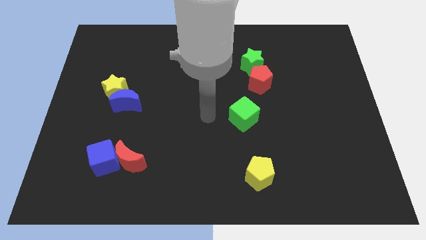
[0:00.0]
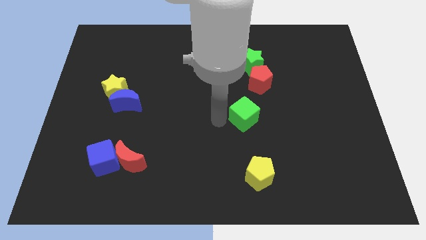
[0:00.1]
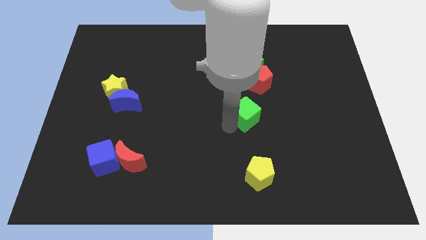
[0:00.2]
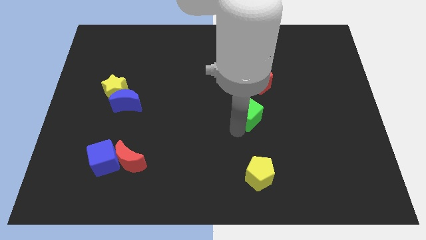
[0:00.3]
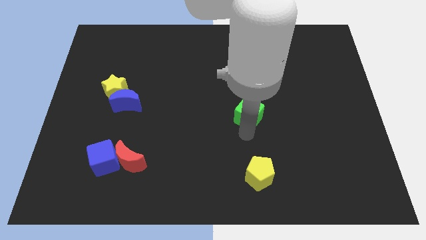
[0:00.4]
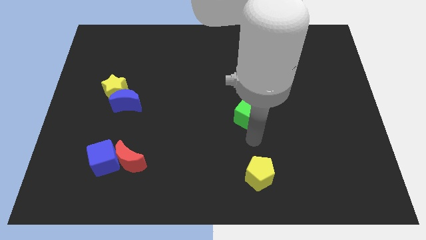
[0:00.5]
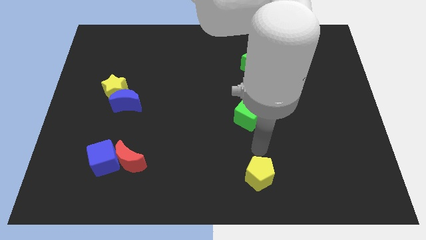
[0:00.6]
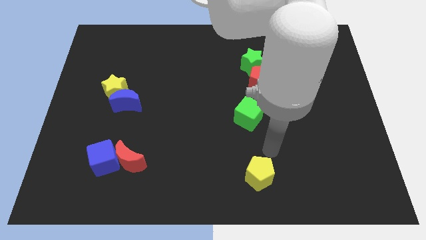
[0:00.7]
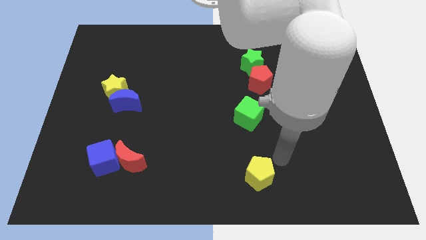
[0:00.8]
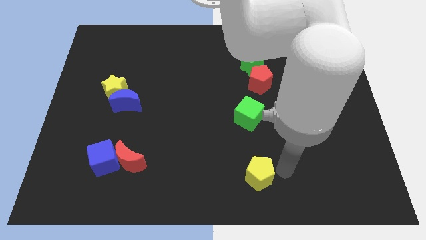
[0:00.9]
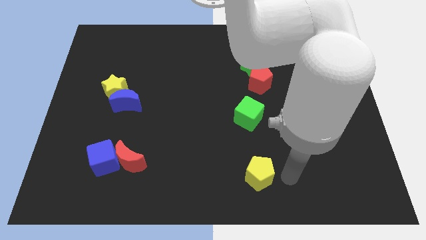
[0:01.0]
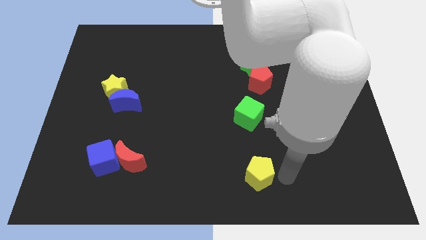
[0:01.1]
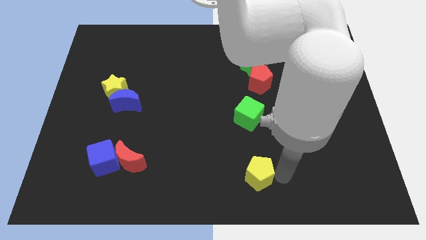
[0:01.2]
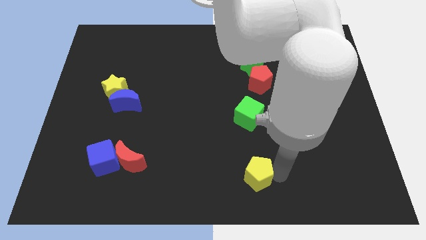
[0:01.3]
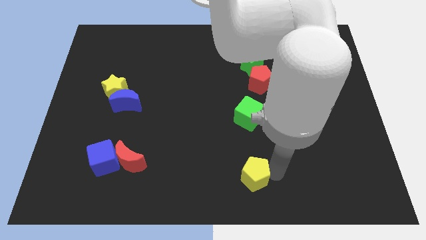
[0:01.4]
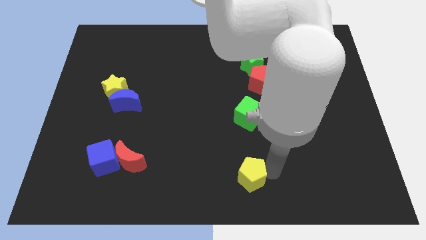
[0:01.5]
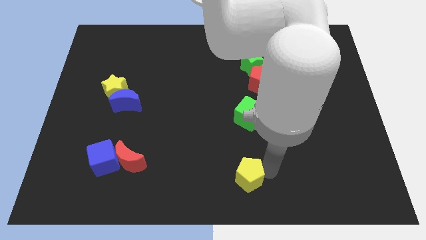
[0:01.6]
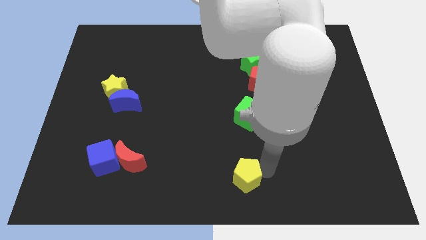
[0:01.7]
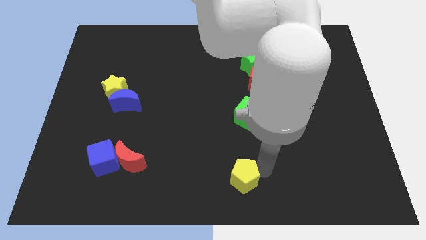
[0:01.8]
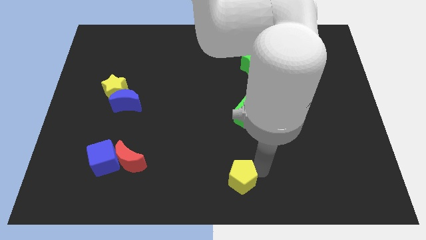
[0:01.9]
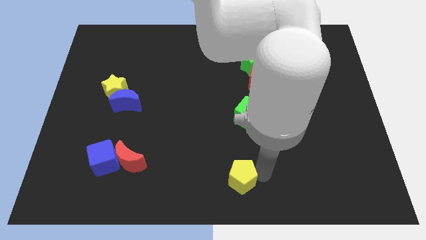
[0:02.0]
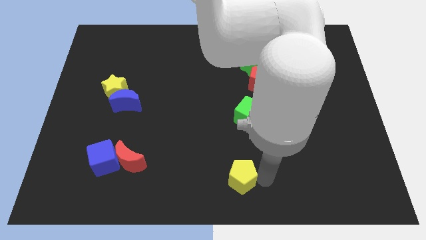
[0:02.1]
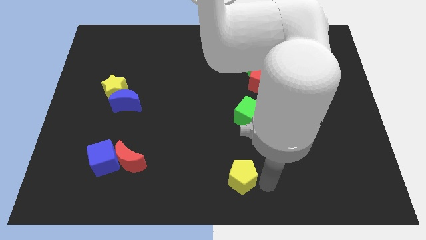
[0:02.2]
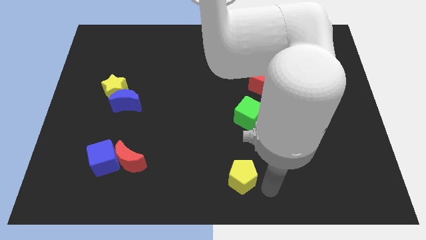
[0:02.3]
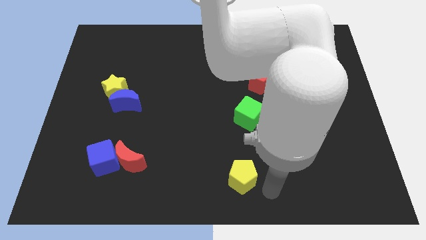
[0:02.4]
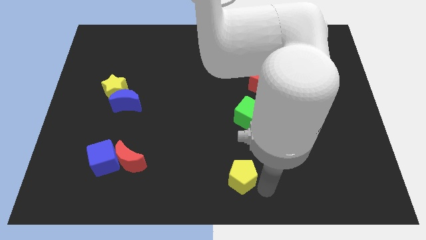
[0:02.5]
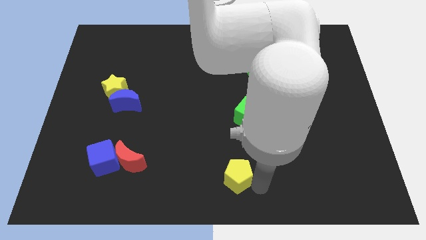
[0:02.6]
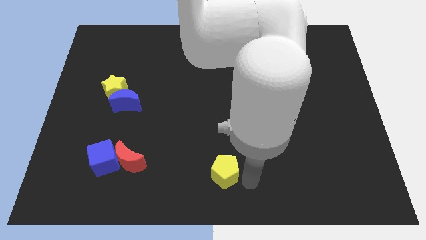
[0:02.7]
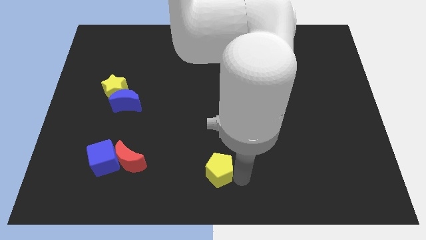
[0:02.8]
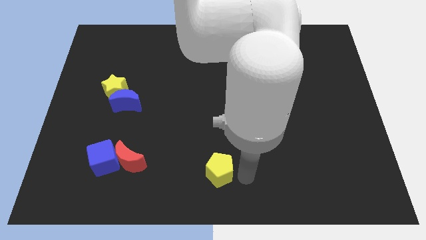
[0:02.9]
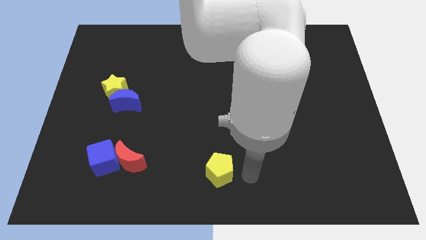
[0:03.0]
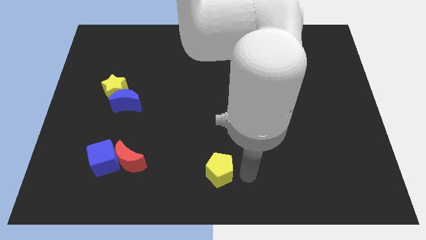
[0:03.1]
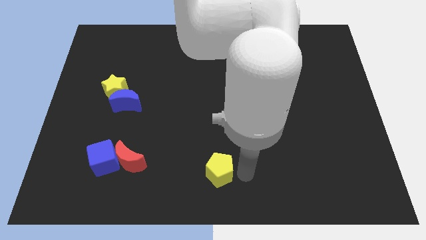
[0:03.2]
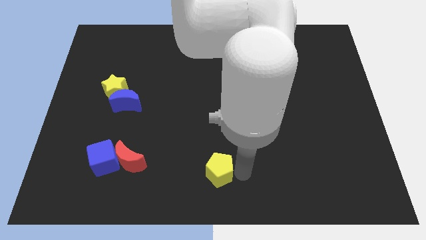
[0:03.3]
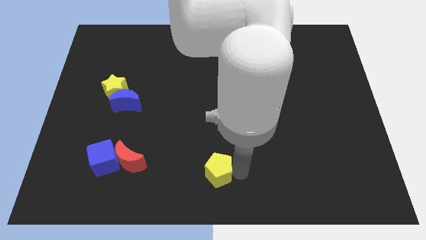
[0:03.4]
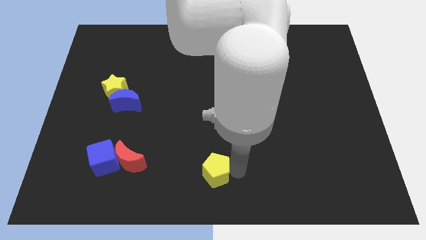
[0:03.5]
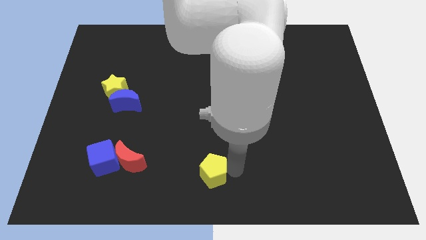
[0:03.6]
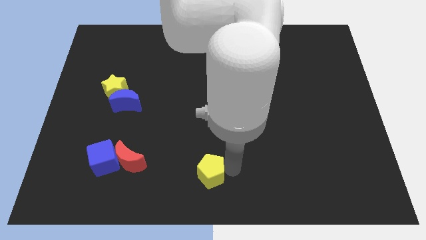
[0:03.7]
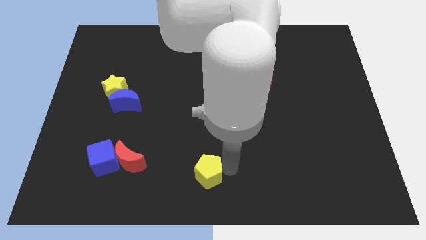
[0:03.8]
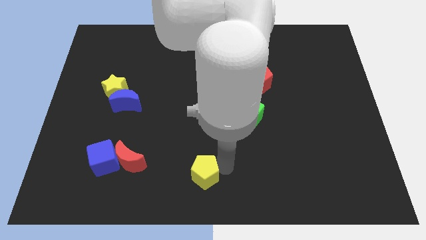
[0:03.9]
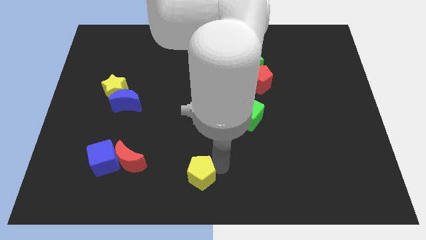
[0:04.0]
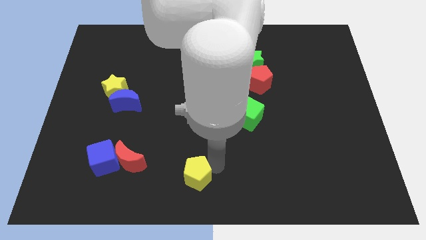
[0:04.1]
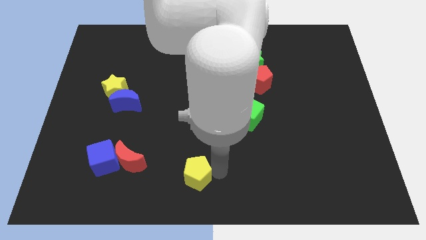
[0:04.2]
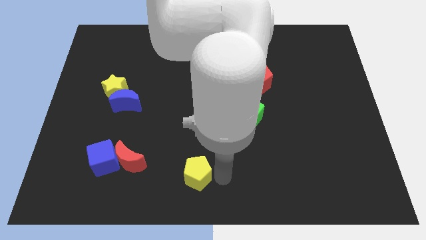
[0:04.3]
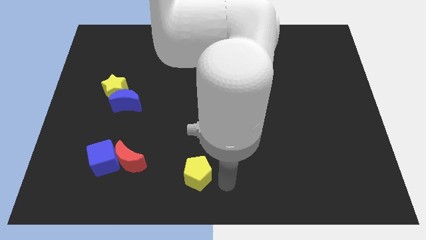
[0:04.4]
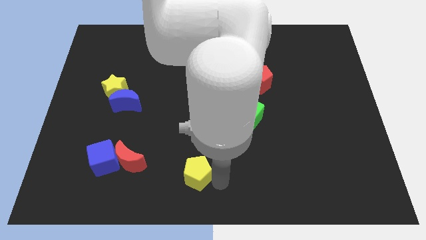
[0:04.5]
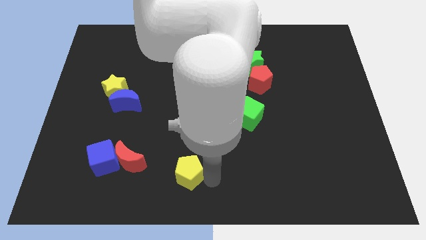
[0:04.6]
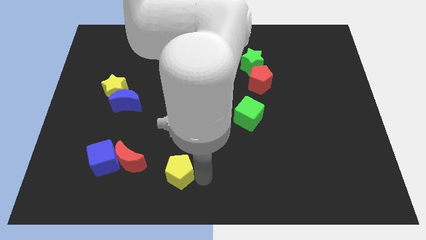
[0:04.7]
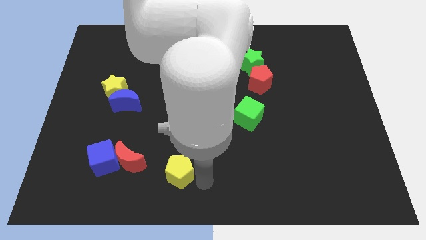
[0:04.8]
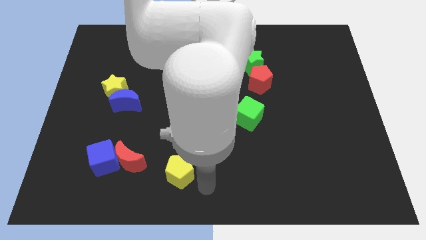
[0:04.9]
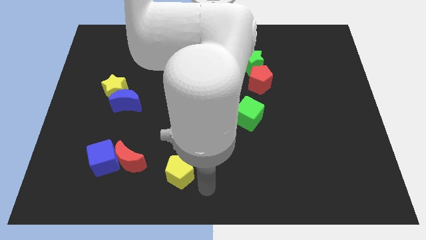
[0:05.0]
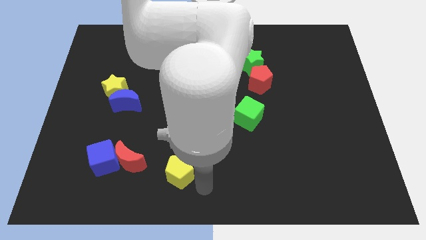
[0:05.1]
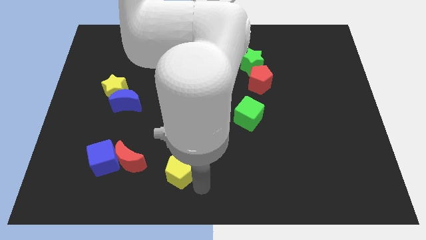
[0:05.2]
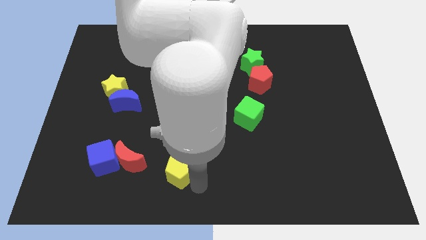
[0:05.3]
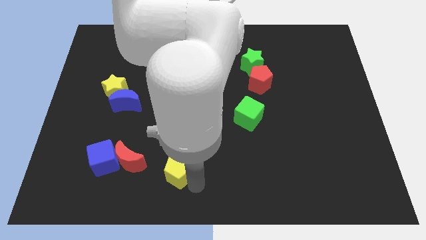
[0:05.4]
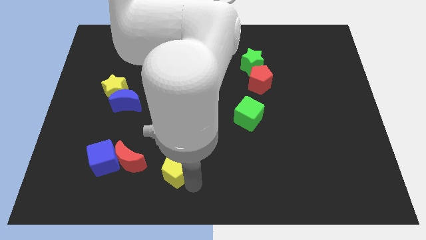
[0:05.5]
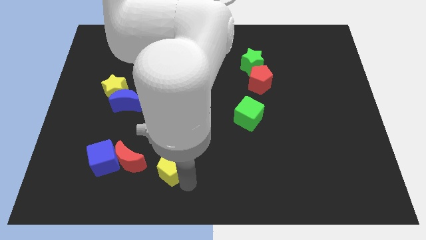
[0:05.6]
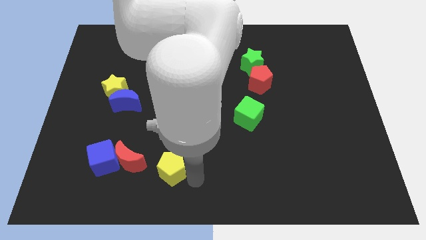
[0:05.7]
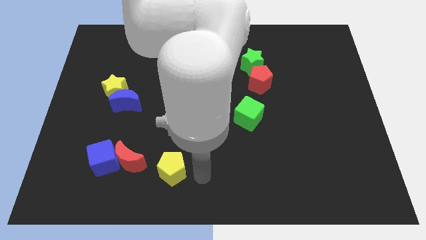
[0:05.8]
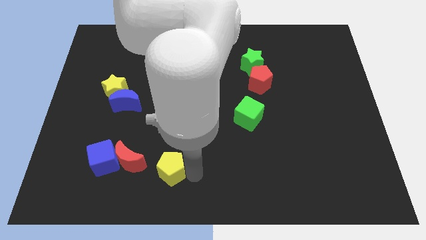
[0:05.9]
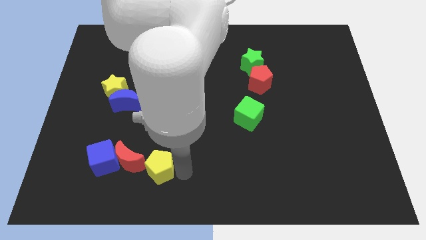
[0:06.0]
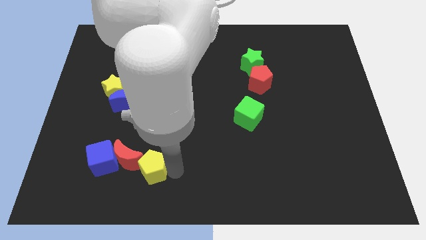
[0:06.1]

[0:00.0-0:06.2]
slide the yellow pentagon to the red moon

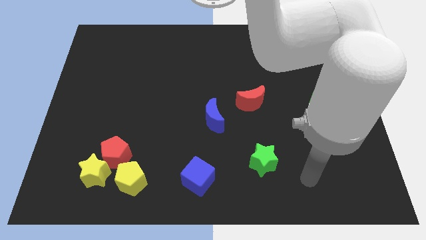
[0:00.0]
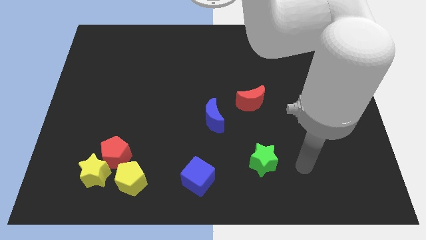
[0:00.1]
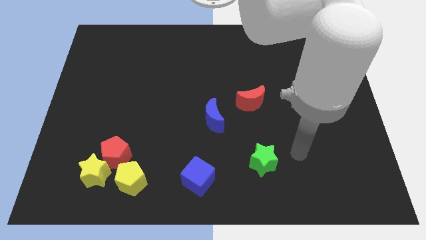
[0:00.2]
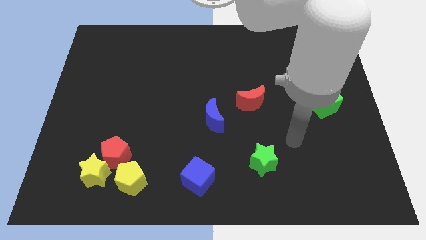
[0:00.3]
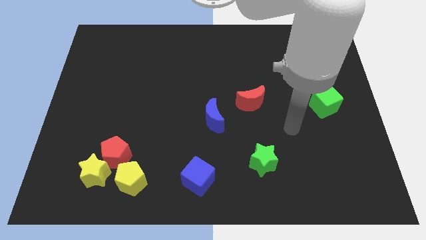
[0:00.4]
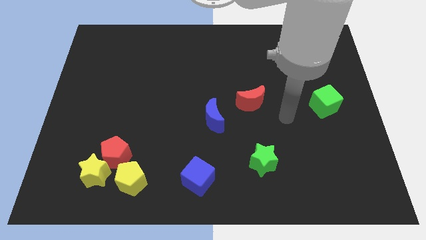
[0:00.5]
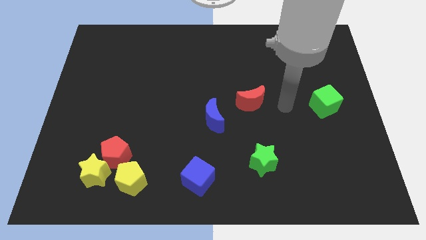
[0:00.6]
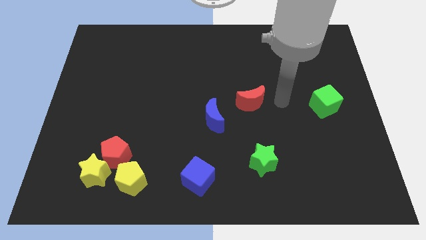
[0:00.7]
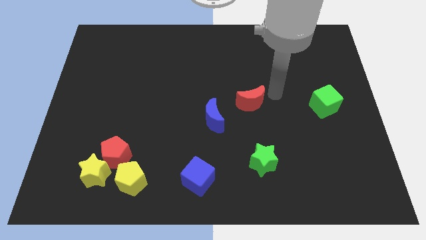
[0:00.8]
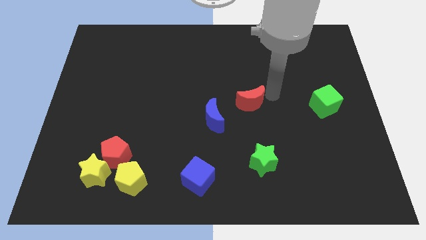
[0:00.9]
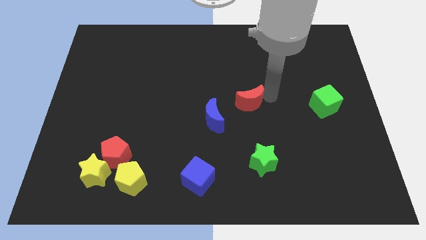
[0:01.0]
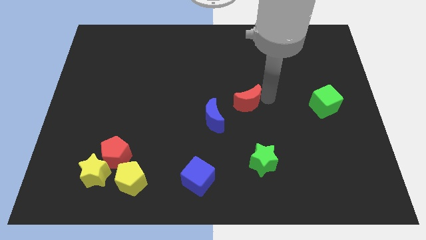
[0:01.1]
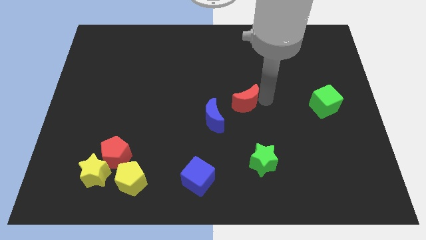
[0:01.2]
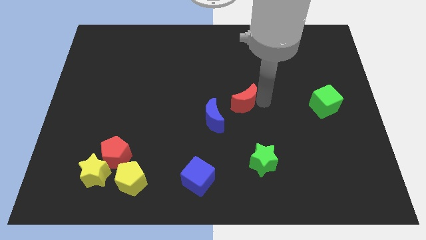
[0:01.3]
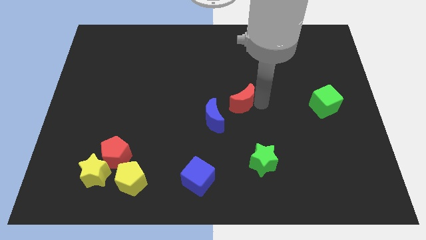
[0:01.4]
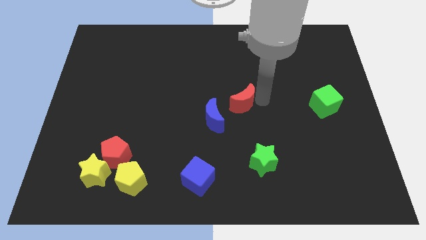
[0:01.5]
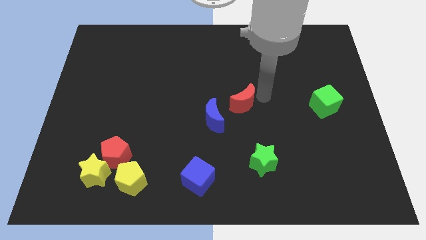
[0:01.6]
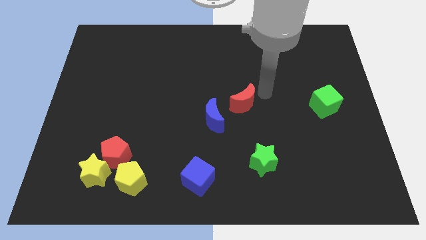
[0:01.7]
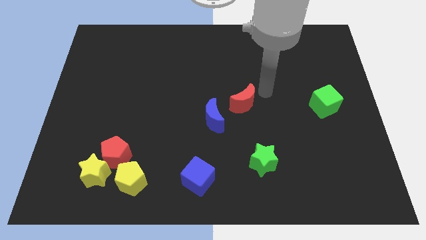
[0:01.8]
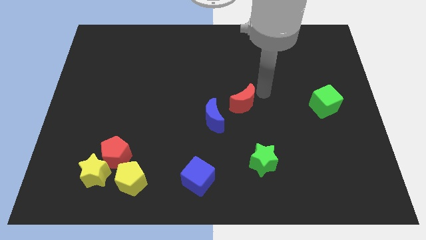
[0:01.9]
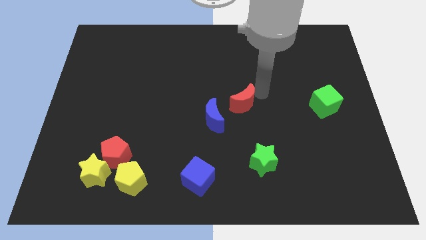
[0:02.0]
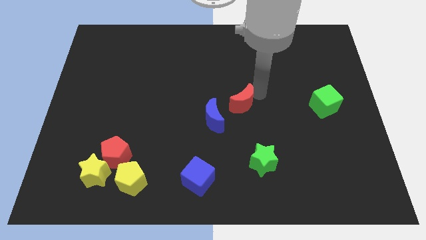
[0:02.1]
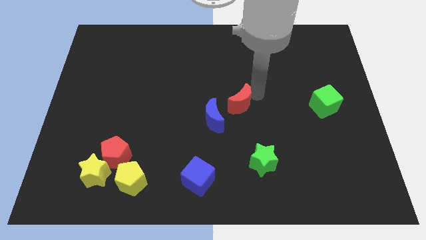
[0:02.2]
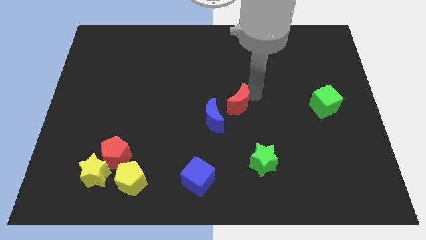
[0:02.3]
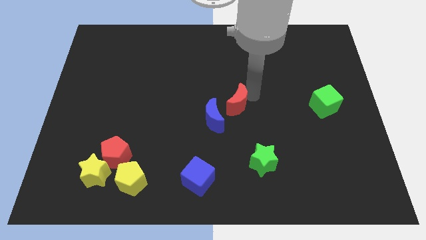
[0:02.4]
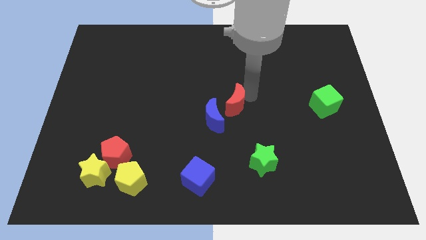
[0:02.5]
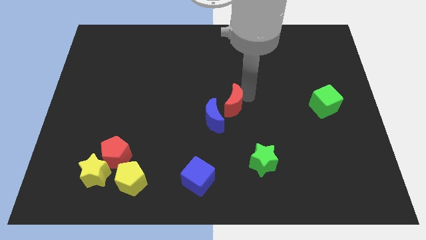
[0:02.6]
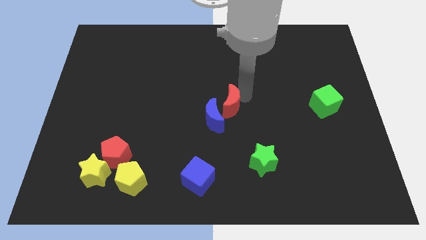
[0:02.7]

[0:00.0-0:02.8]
move the red moon next to the blue moon
